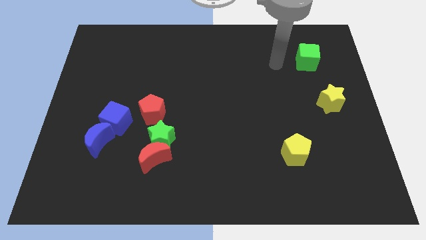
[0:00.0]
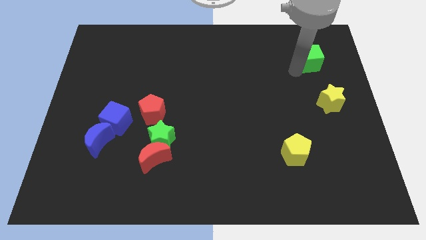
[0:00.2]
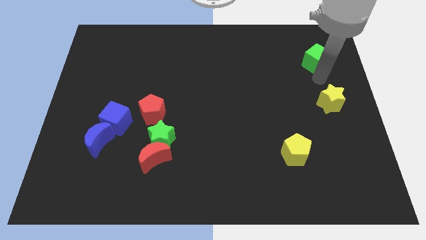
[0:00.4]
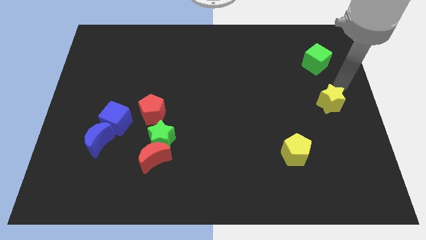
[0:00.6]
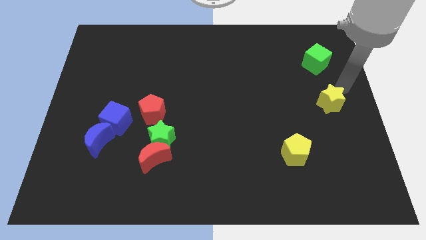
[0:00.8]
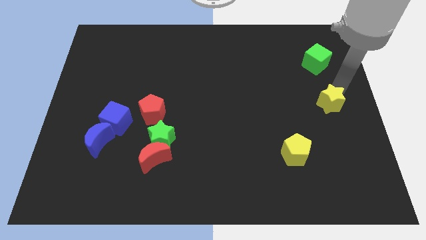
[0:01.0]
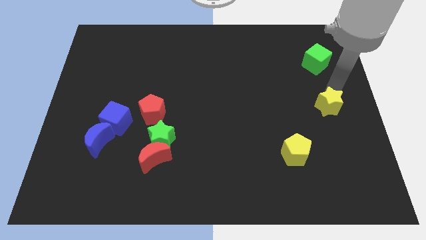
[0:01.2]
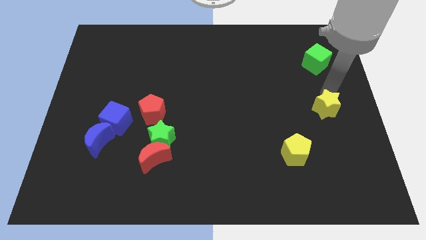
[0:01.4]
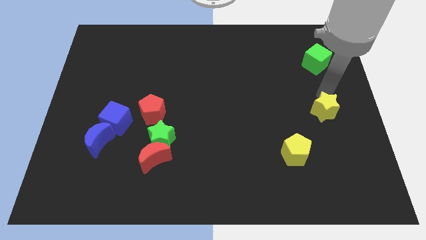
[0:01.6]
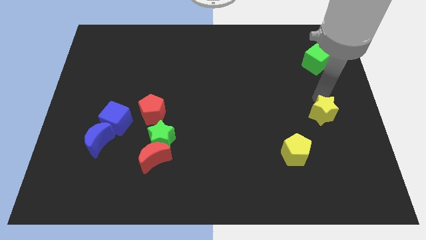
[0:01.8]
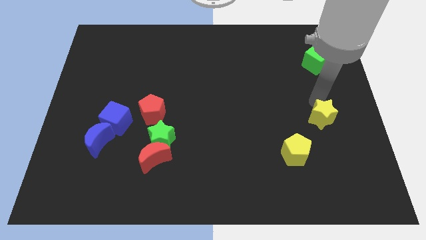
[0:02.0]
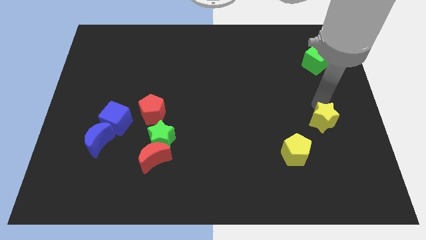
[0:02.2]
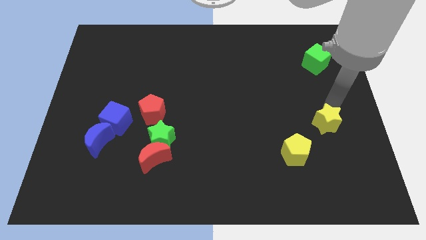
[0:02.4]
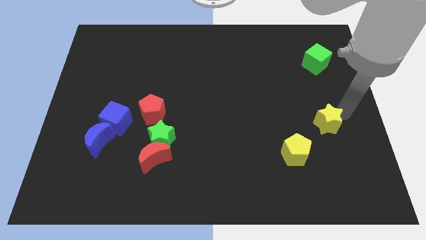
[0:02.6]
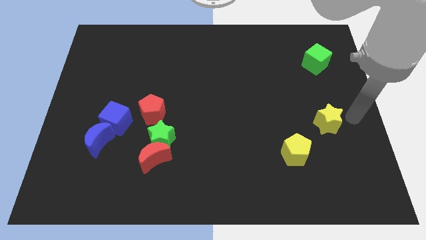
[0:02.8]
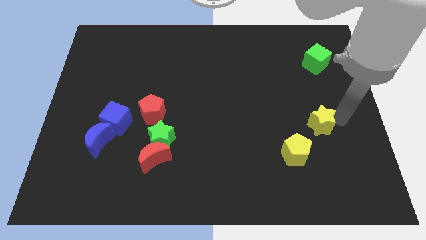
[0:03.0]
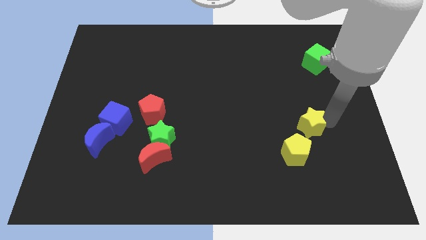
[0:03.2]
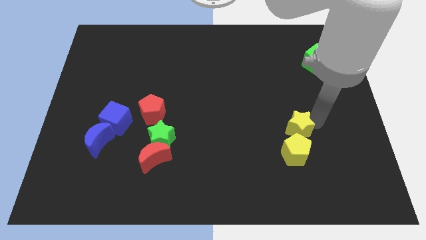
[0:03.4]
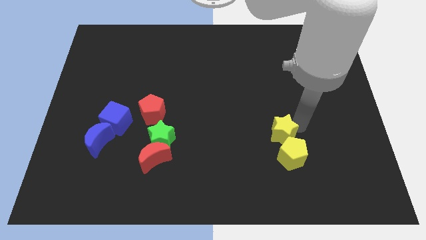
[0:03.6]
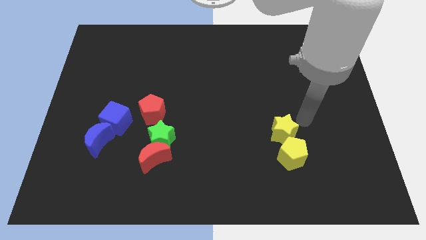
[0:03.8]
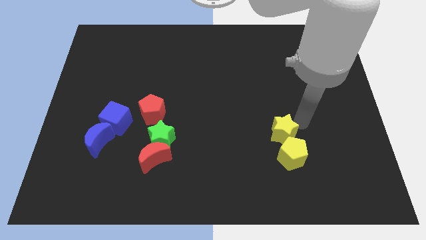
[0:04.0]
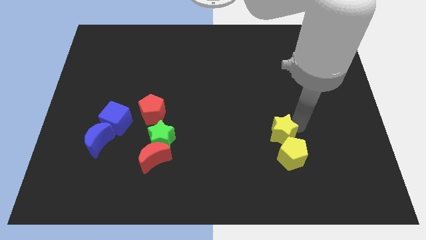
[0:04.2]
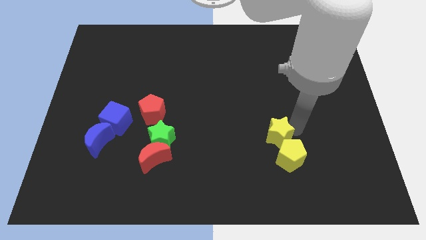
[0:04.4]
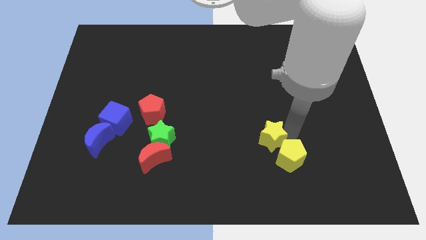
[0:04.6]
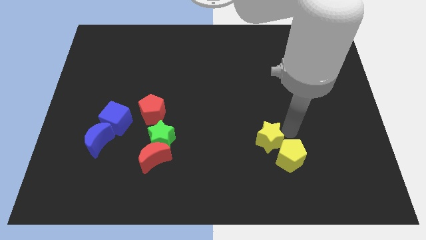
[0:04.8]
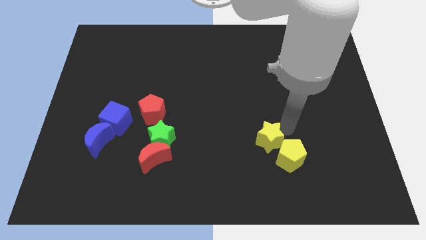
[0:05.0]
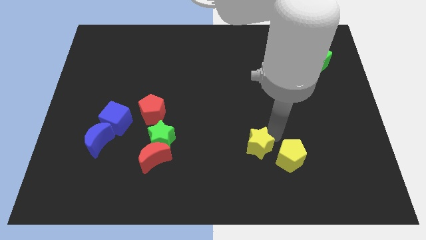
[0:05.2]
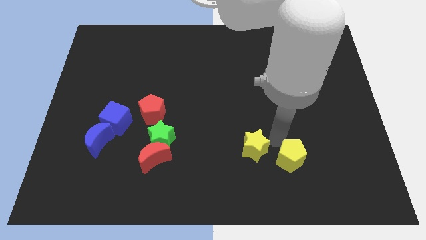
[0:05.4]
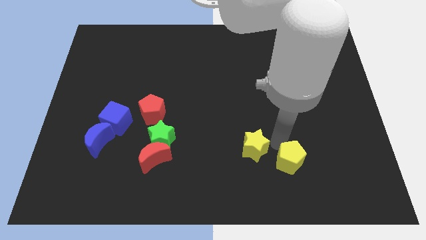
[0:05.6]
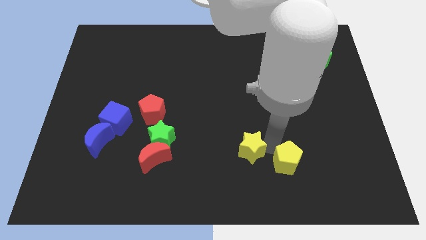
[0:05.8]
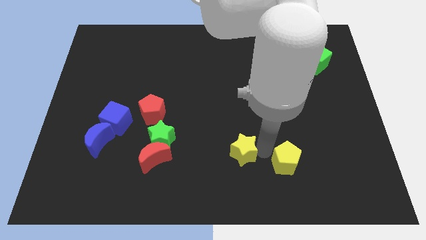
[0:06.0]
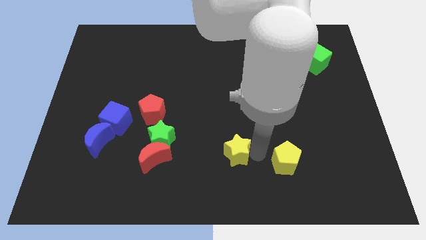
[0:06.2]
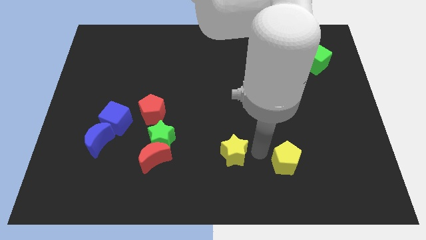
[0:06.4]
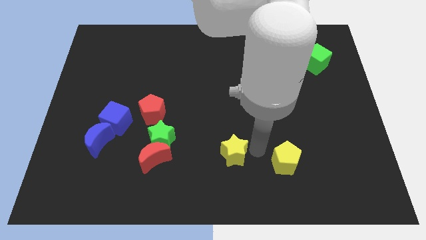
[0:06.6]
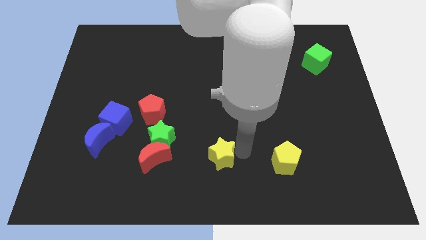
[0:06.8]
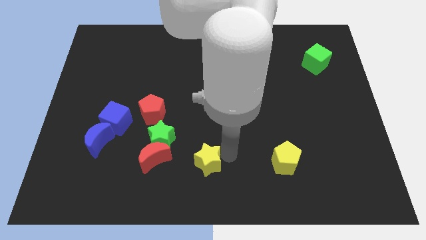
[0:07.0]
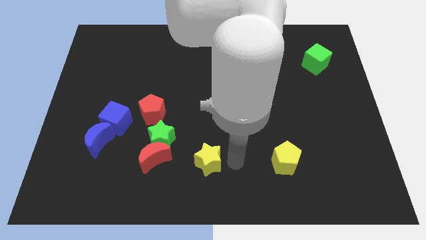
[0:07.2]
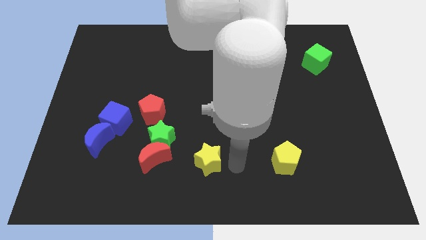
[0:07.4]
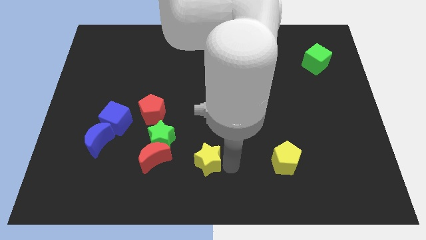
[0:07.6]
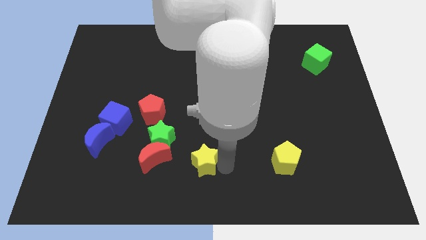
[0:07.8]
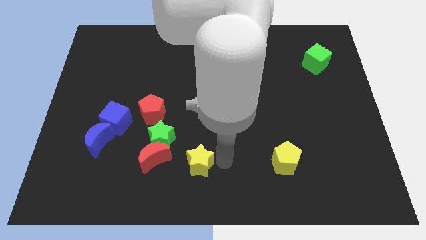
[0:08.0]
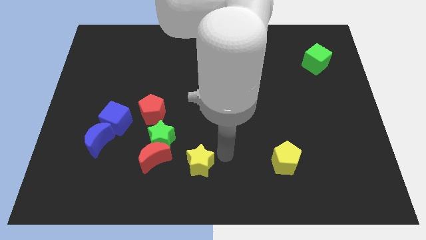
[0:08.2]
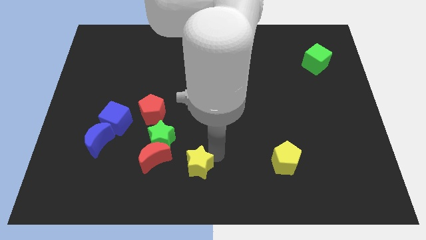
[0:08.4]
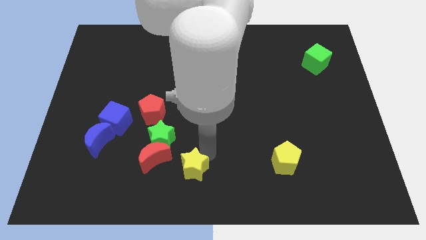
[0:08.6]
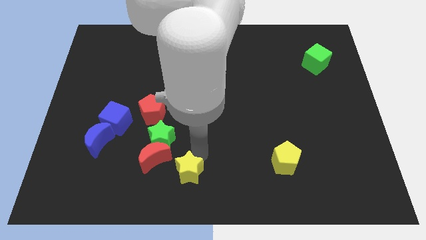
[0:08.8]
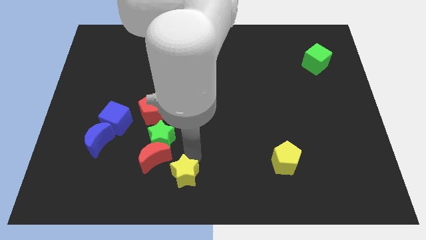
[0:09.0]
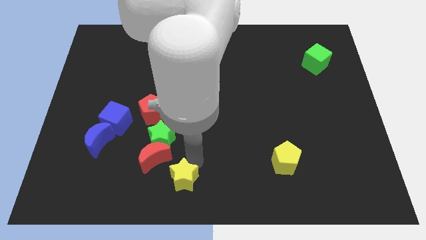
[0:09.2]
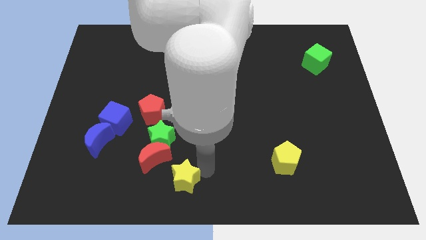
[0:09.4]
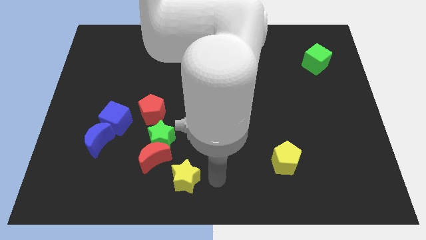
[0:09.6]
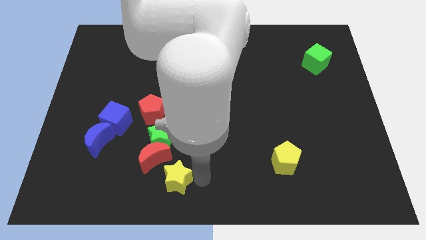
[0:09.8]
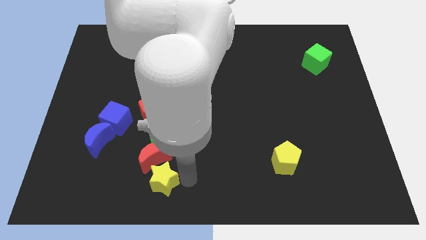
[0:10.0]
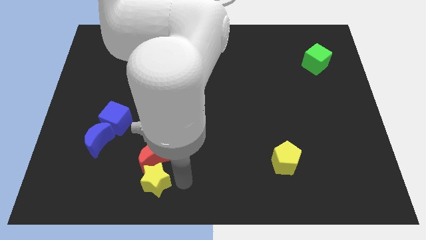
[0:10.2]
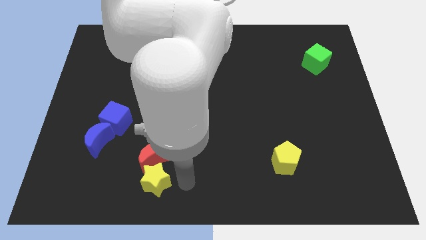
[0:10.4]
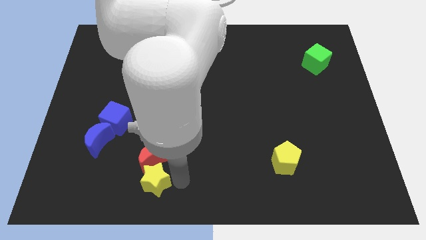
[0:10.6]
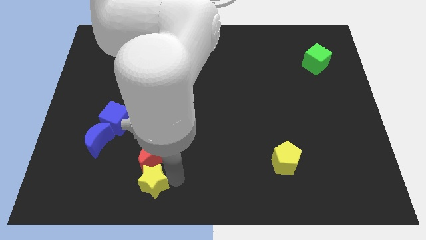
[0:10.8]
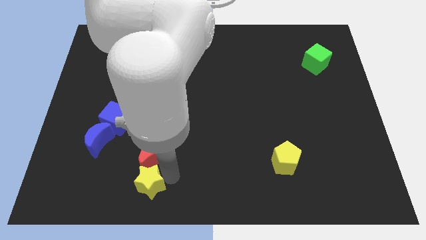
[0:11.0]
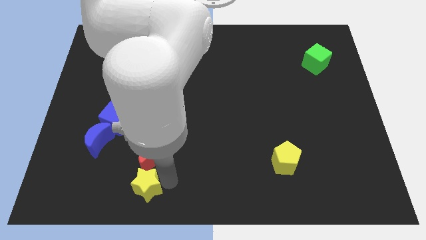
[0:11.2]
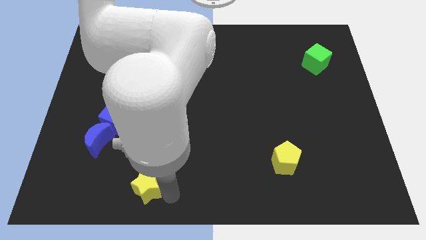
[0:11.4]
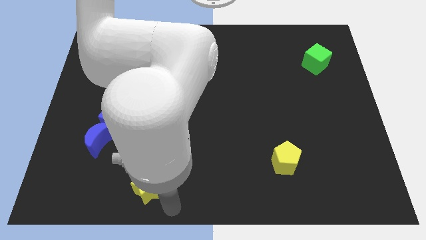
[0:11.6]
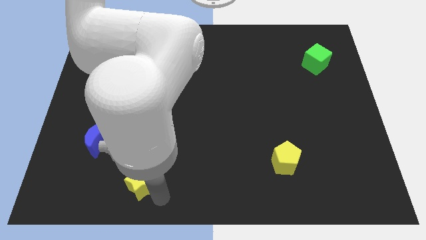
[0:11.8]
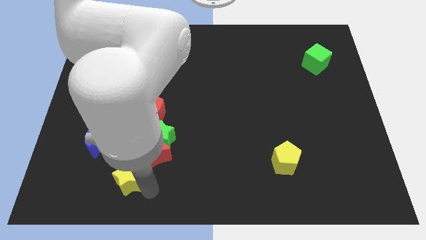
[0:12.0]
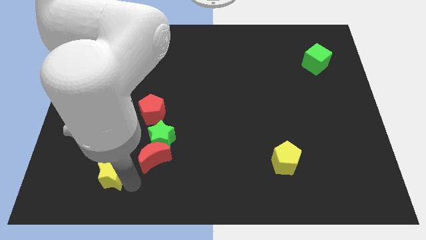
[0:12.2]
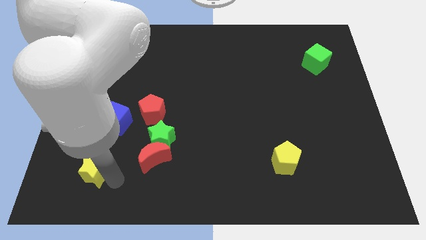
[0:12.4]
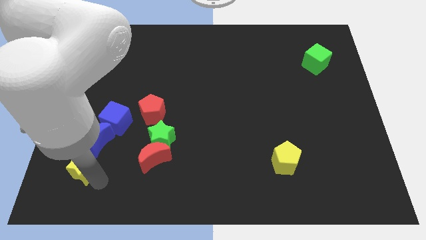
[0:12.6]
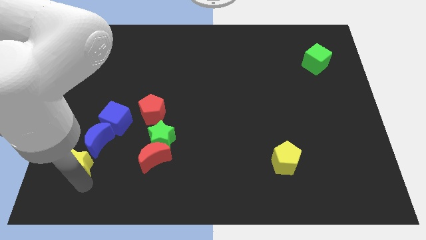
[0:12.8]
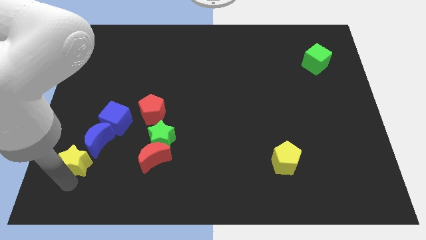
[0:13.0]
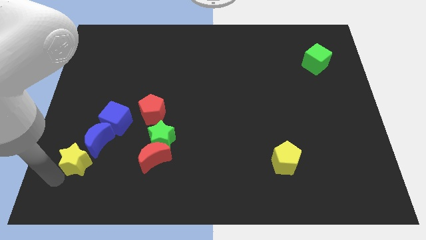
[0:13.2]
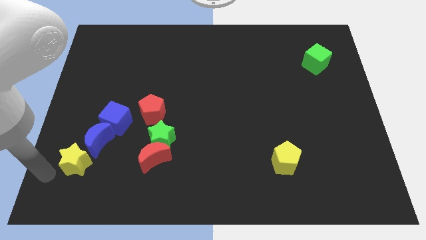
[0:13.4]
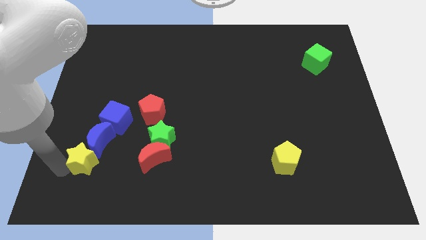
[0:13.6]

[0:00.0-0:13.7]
move the yellow star to the blue moon
